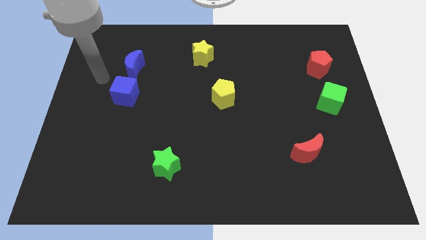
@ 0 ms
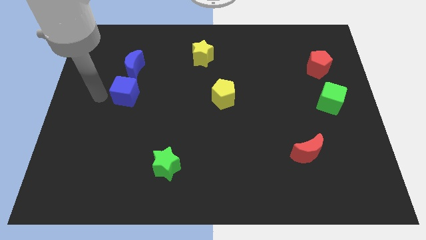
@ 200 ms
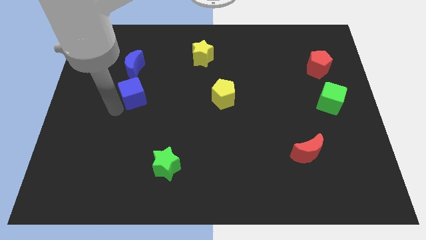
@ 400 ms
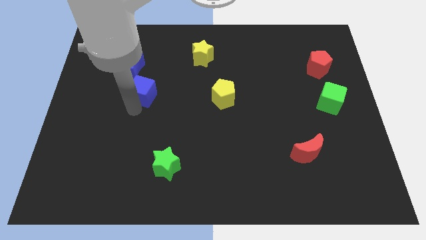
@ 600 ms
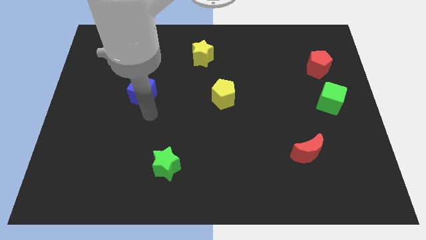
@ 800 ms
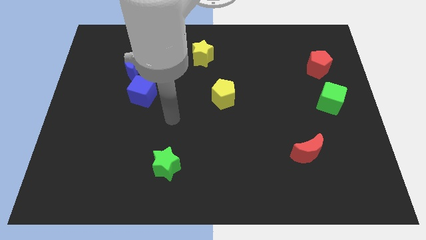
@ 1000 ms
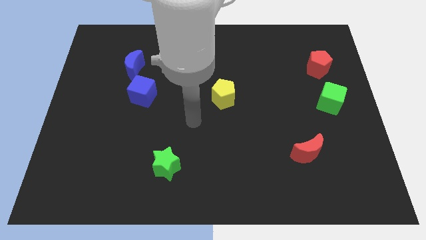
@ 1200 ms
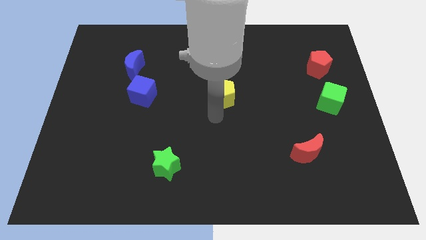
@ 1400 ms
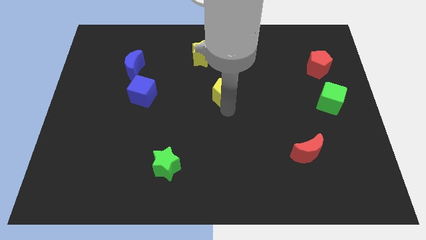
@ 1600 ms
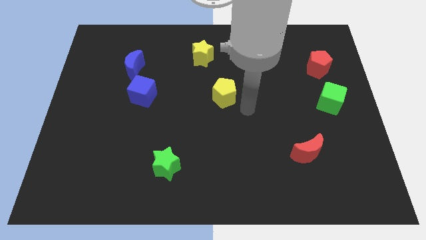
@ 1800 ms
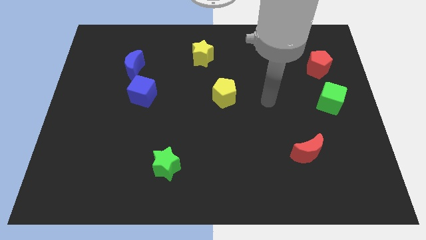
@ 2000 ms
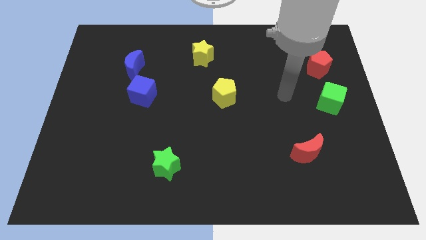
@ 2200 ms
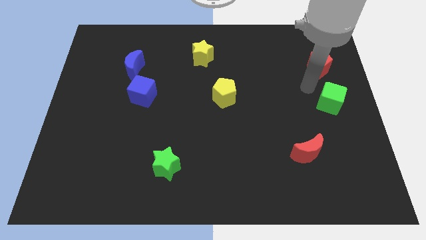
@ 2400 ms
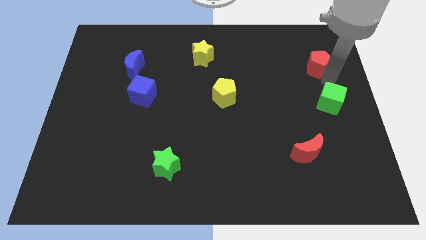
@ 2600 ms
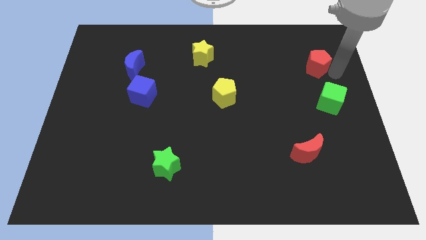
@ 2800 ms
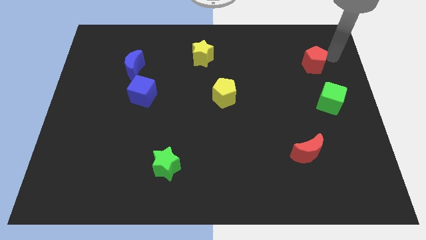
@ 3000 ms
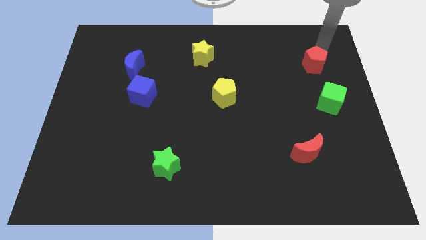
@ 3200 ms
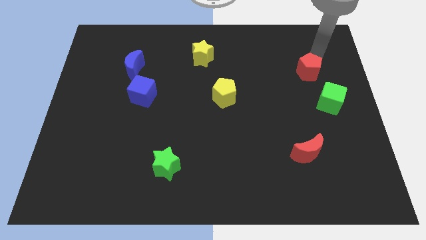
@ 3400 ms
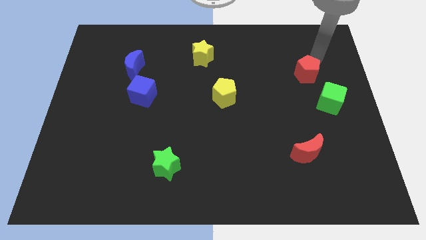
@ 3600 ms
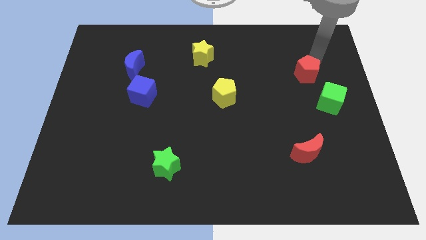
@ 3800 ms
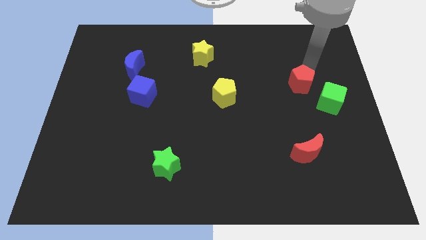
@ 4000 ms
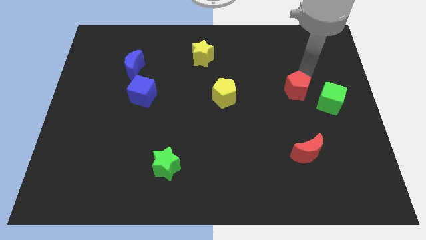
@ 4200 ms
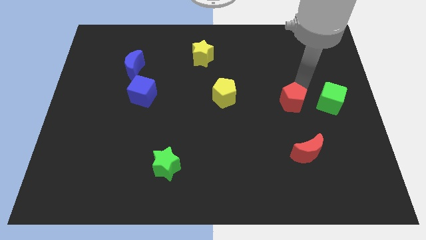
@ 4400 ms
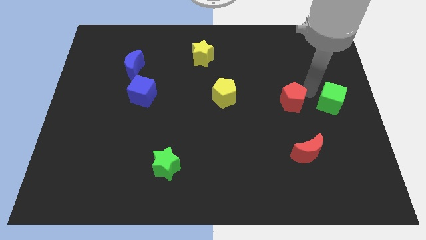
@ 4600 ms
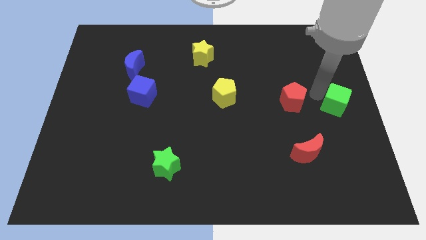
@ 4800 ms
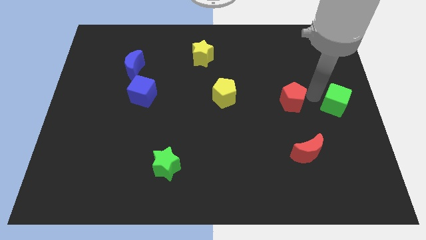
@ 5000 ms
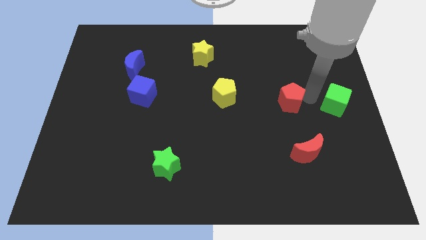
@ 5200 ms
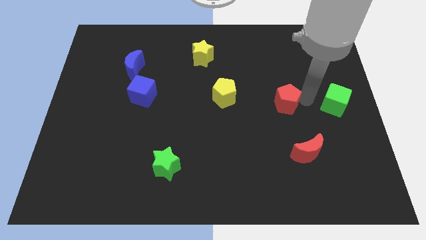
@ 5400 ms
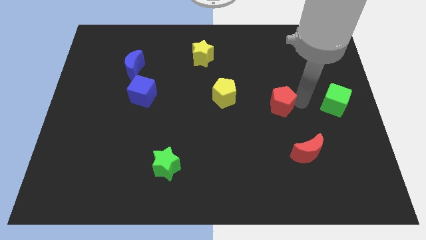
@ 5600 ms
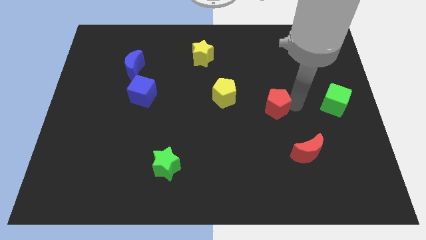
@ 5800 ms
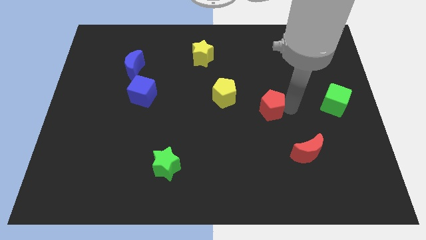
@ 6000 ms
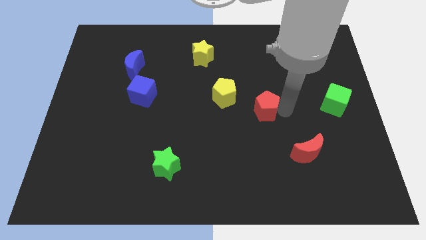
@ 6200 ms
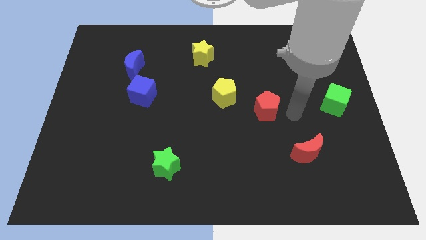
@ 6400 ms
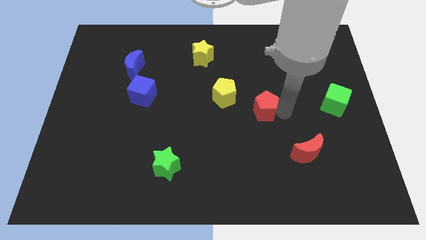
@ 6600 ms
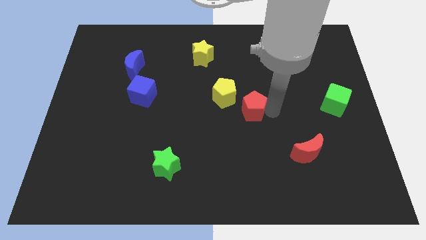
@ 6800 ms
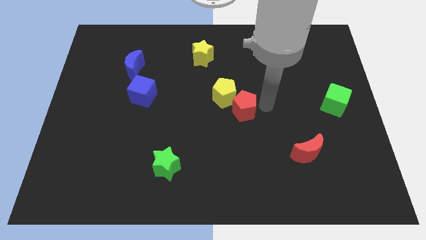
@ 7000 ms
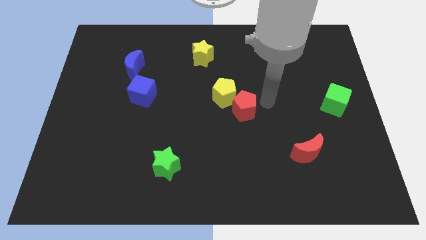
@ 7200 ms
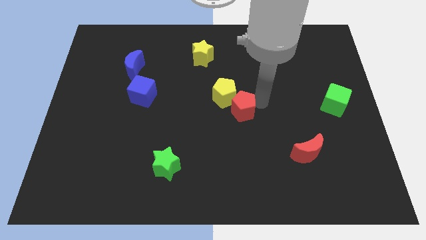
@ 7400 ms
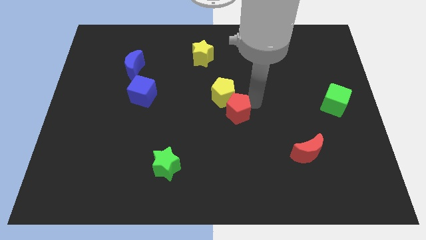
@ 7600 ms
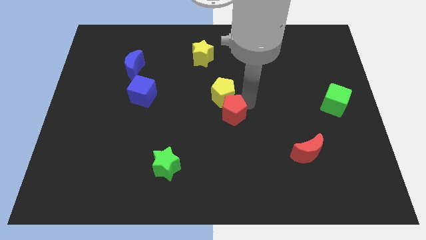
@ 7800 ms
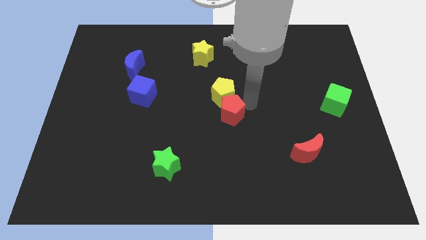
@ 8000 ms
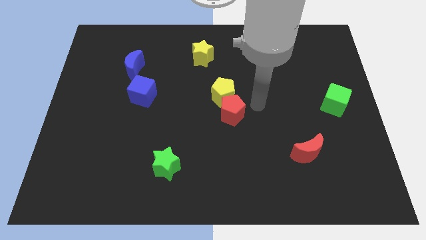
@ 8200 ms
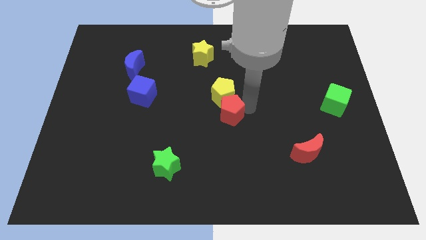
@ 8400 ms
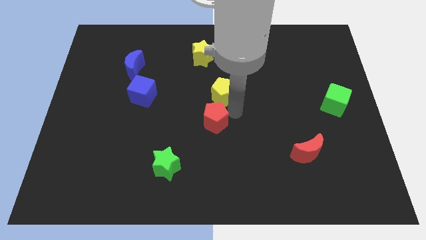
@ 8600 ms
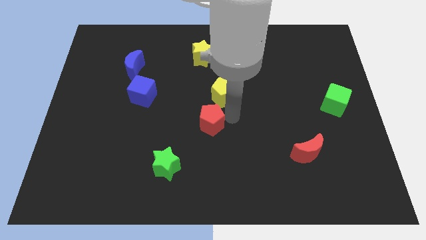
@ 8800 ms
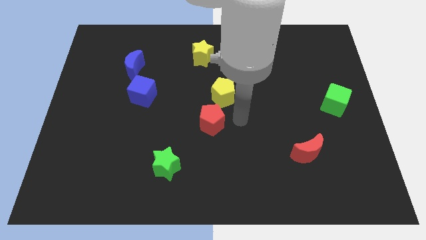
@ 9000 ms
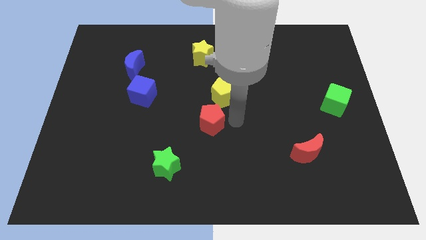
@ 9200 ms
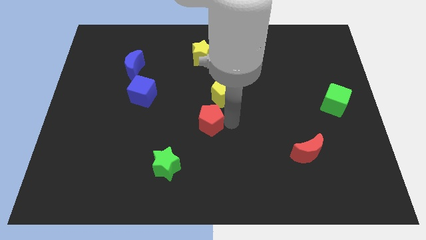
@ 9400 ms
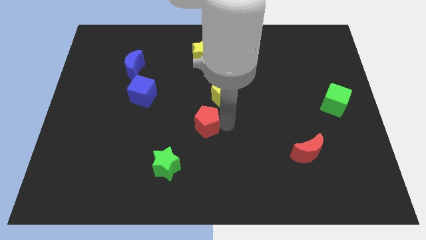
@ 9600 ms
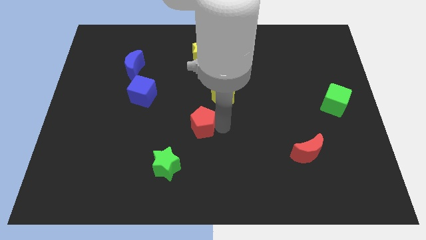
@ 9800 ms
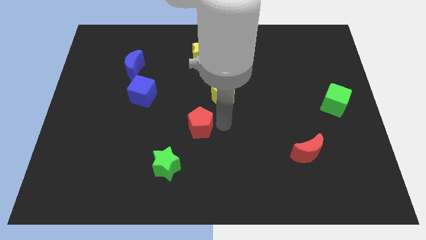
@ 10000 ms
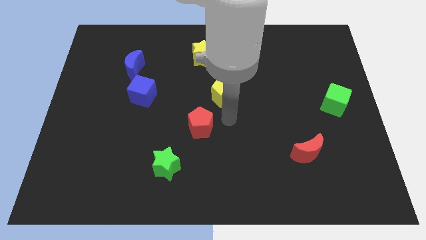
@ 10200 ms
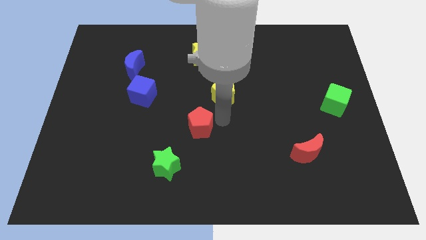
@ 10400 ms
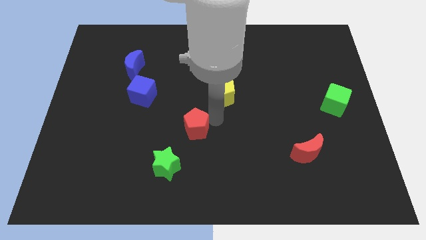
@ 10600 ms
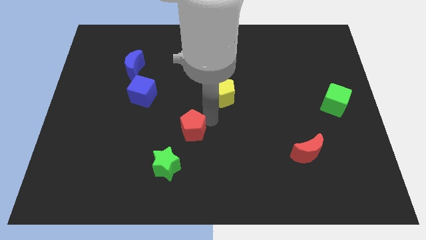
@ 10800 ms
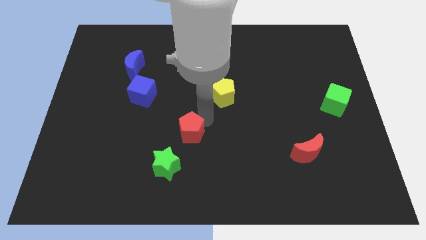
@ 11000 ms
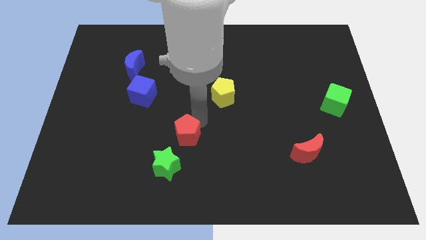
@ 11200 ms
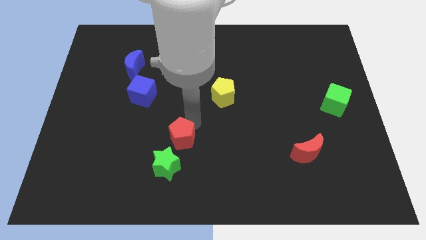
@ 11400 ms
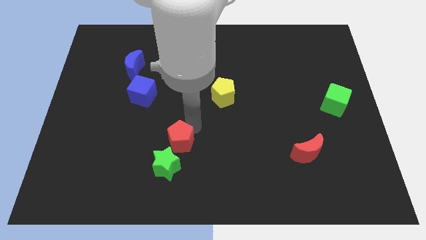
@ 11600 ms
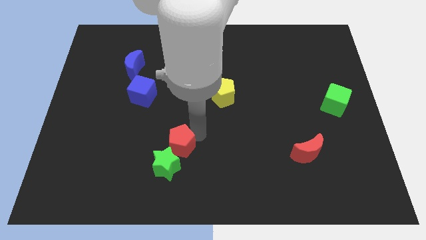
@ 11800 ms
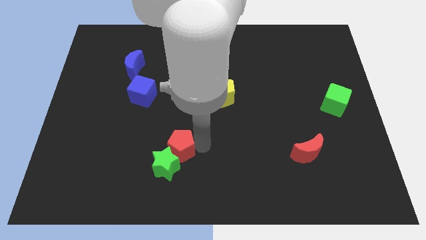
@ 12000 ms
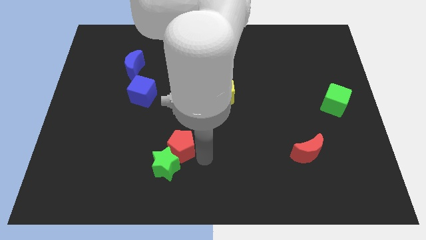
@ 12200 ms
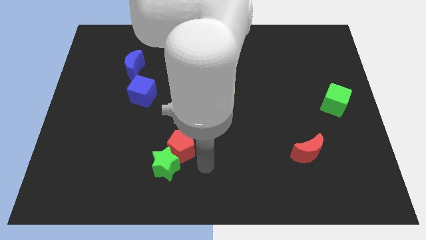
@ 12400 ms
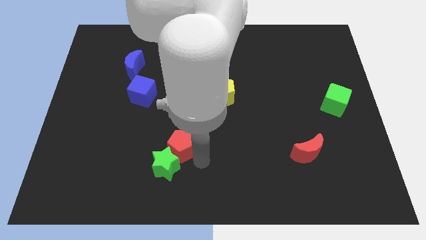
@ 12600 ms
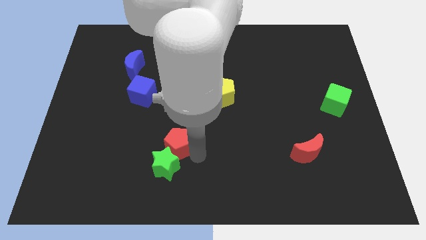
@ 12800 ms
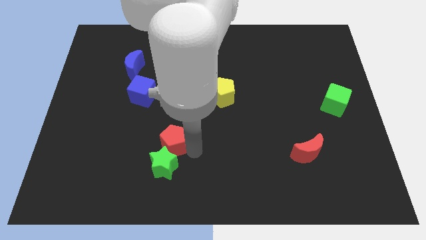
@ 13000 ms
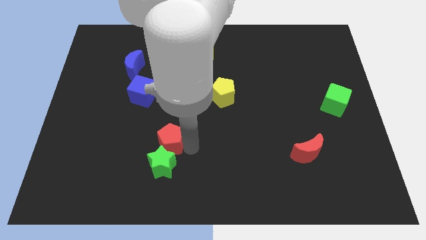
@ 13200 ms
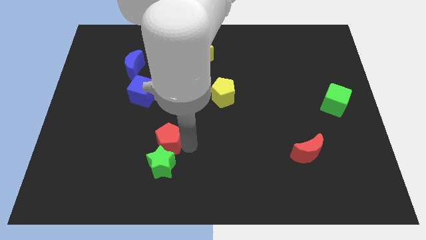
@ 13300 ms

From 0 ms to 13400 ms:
push the red pentagon diagonally up and to the left of the green star
